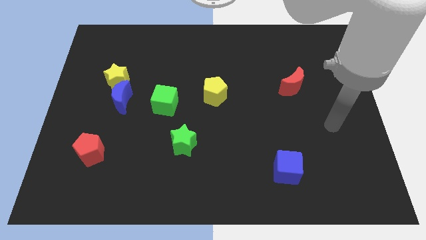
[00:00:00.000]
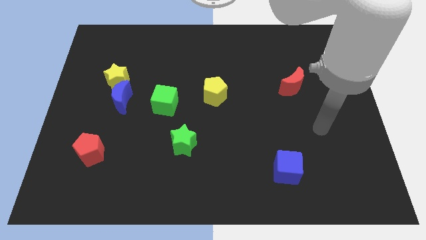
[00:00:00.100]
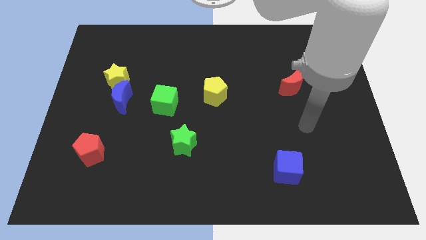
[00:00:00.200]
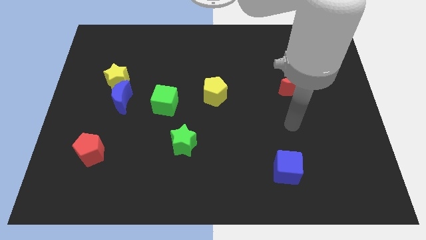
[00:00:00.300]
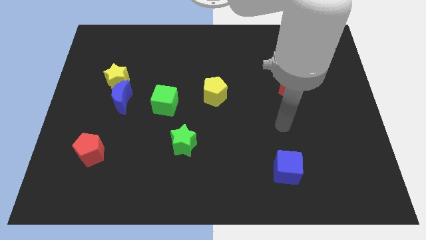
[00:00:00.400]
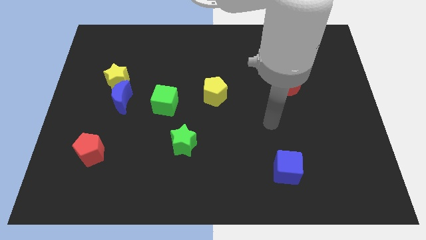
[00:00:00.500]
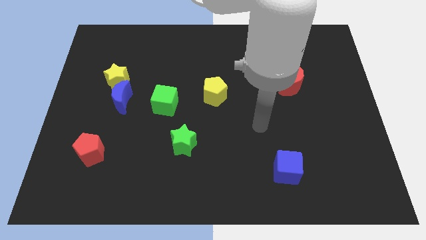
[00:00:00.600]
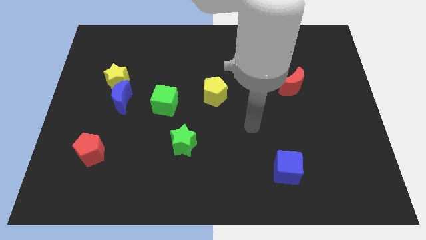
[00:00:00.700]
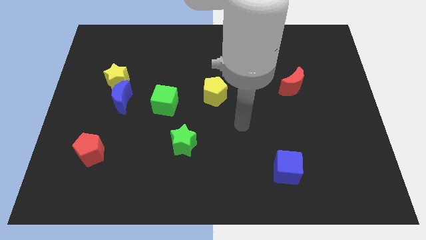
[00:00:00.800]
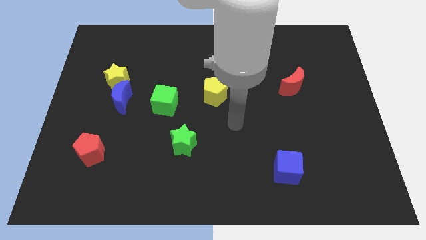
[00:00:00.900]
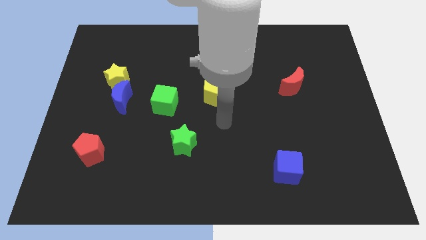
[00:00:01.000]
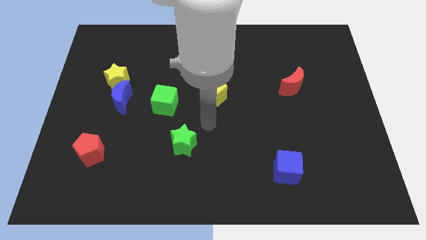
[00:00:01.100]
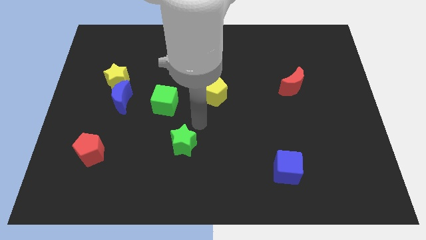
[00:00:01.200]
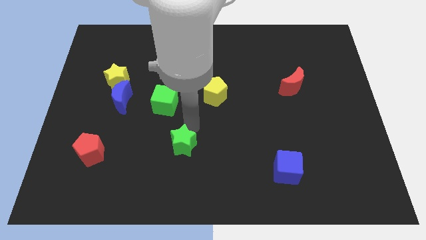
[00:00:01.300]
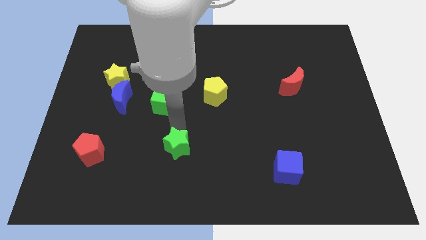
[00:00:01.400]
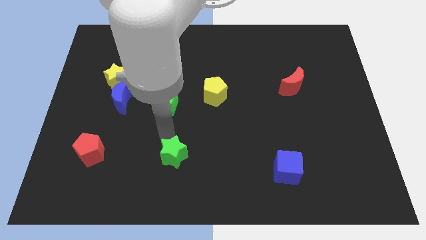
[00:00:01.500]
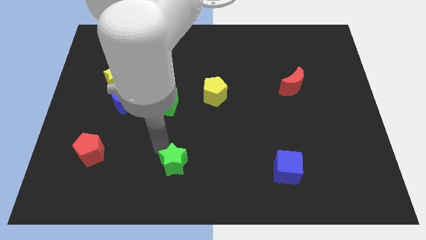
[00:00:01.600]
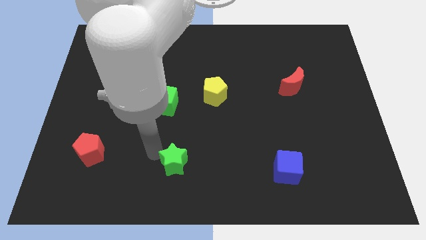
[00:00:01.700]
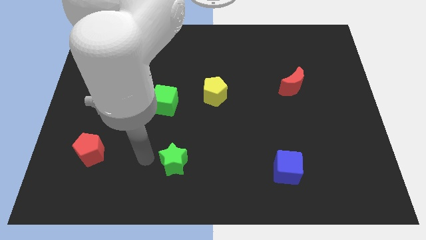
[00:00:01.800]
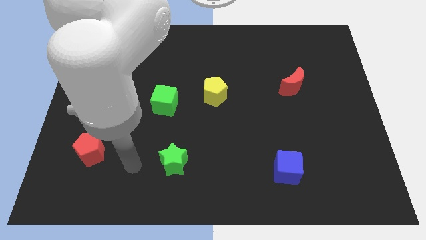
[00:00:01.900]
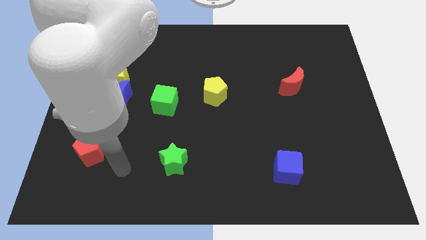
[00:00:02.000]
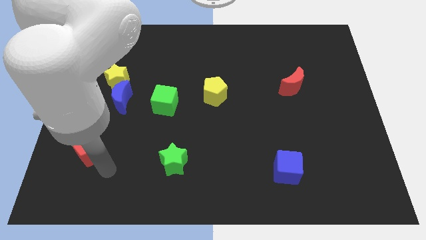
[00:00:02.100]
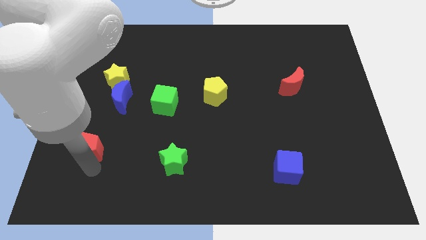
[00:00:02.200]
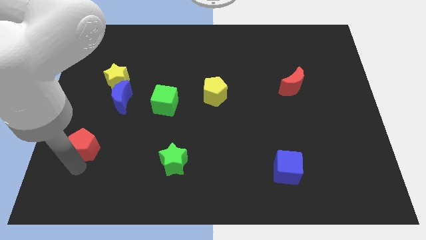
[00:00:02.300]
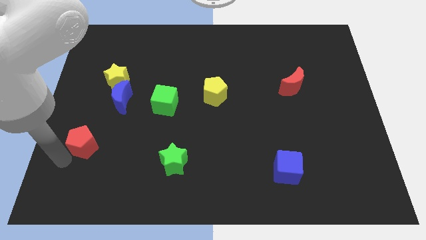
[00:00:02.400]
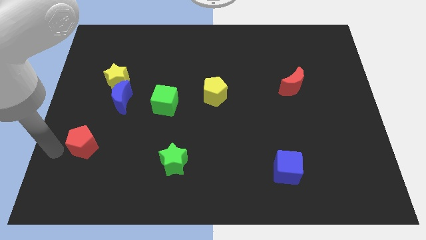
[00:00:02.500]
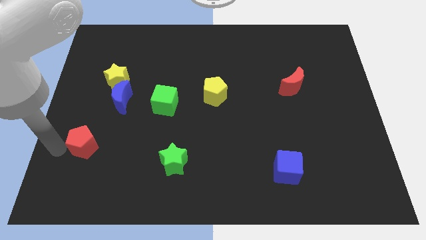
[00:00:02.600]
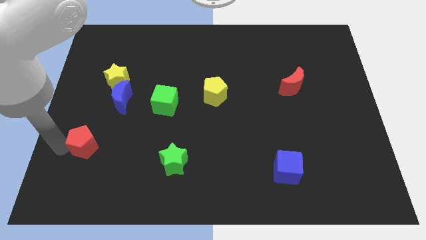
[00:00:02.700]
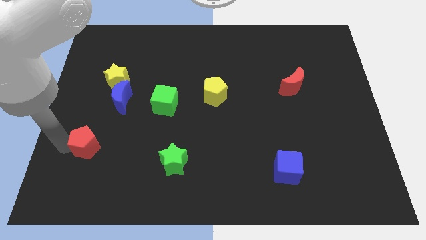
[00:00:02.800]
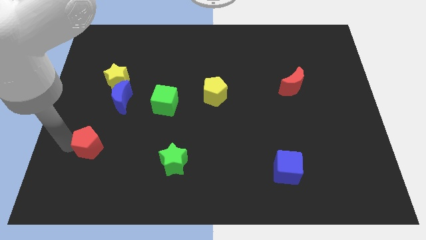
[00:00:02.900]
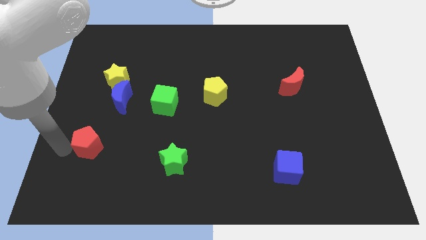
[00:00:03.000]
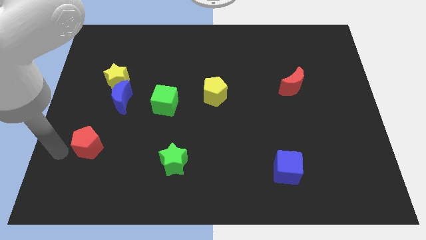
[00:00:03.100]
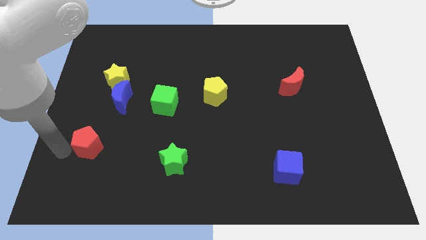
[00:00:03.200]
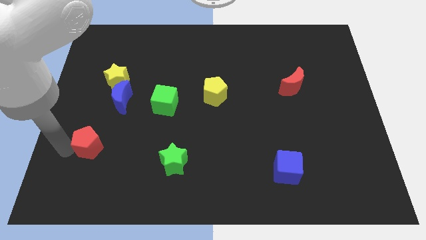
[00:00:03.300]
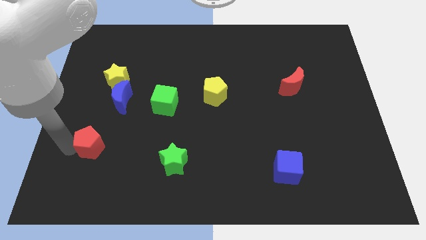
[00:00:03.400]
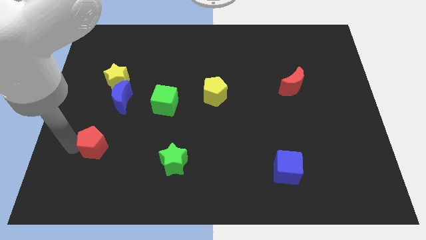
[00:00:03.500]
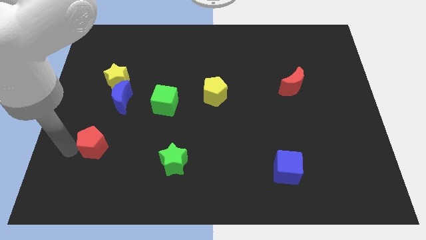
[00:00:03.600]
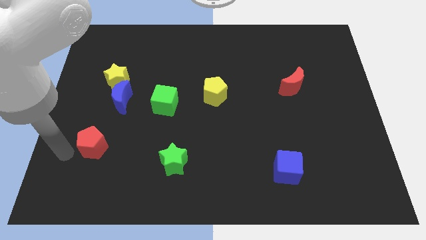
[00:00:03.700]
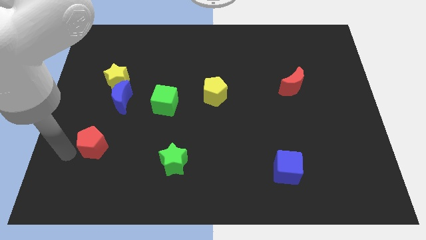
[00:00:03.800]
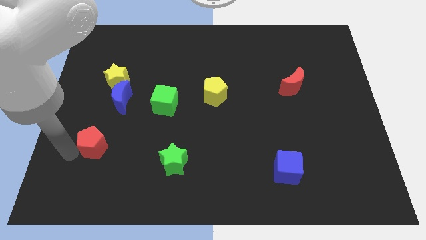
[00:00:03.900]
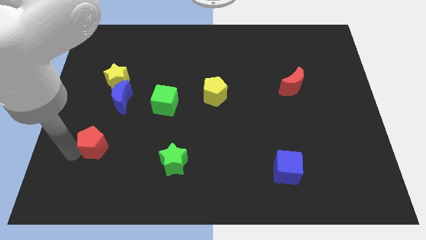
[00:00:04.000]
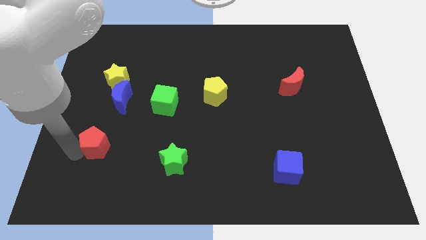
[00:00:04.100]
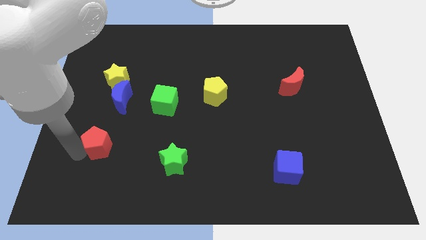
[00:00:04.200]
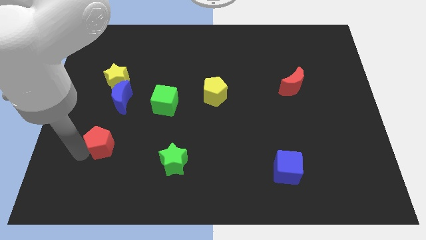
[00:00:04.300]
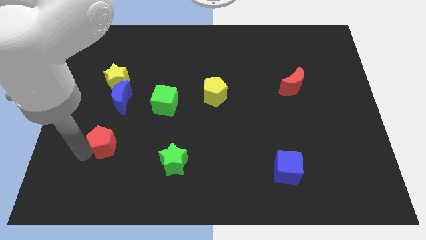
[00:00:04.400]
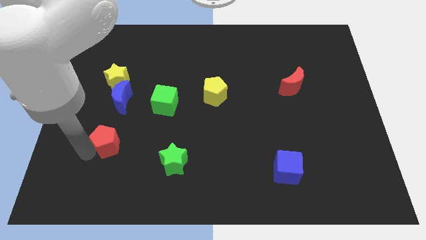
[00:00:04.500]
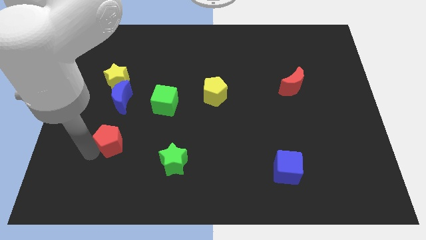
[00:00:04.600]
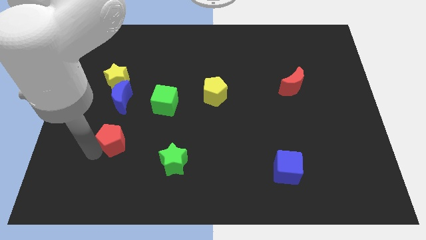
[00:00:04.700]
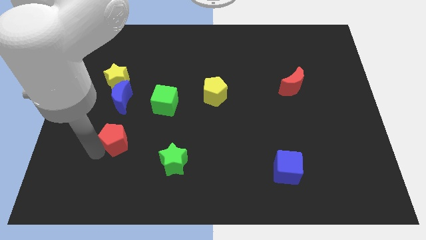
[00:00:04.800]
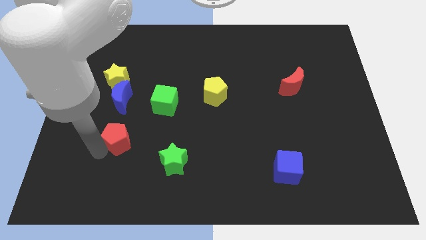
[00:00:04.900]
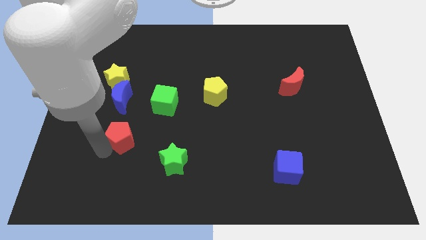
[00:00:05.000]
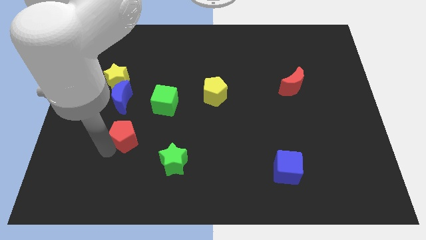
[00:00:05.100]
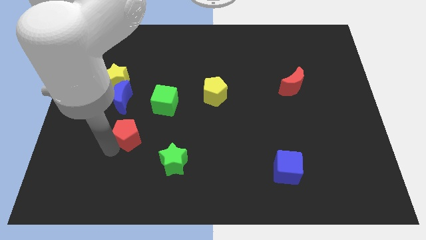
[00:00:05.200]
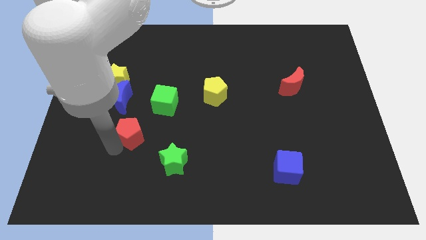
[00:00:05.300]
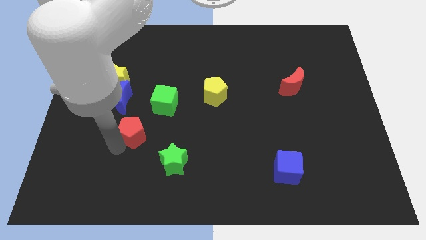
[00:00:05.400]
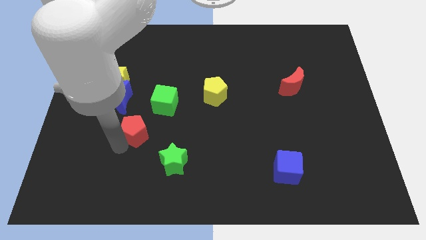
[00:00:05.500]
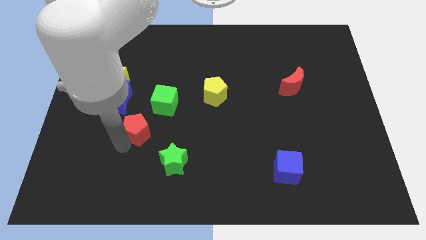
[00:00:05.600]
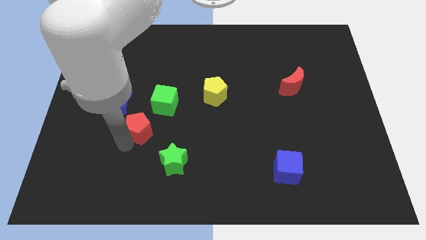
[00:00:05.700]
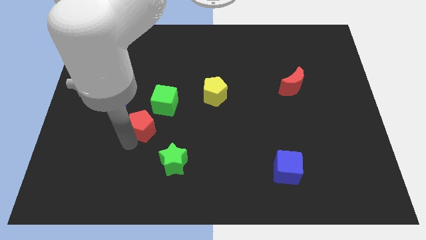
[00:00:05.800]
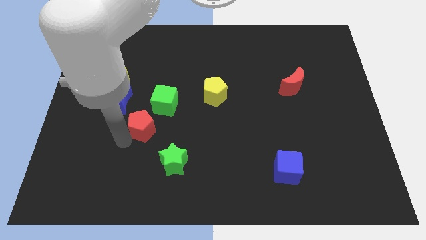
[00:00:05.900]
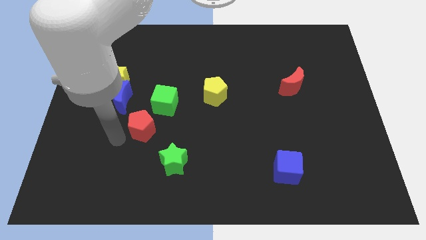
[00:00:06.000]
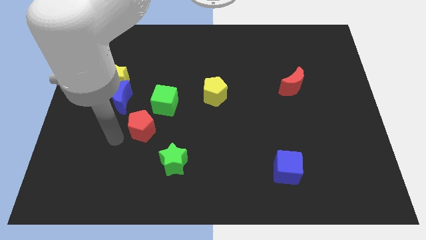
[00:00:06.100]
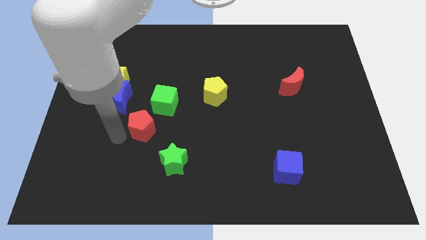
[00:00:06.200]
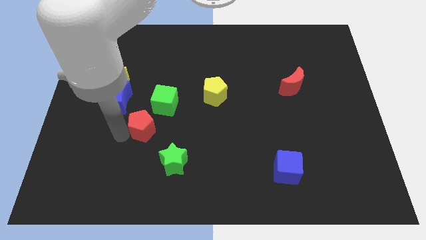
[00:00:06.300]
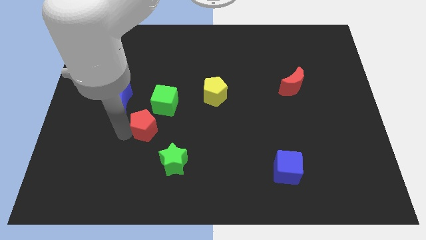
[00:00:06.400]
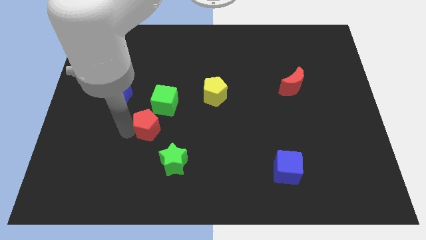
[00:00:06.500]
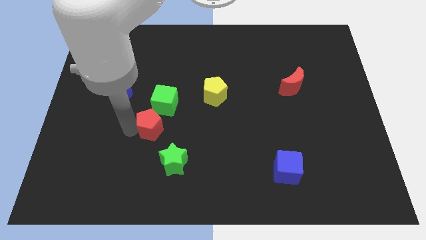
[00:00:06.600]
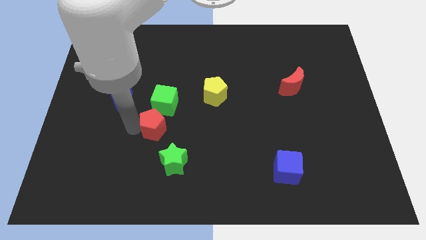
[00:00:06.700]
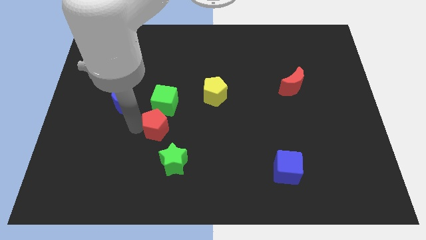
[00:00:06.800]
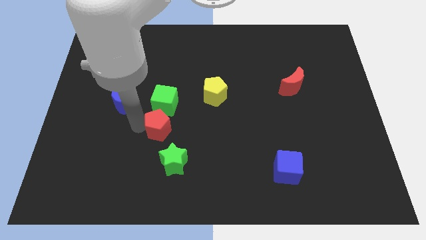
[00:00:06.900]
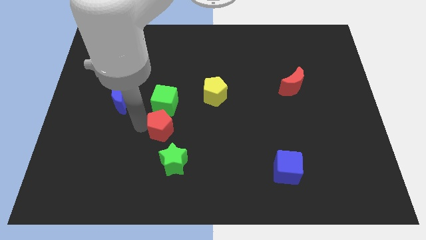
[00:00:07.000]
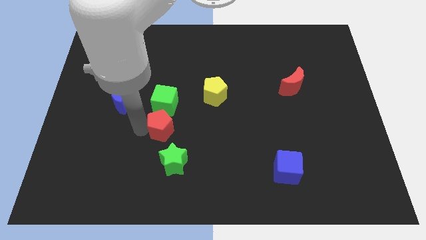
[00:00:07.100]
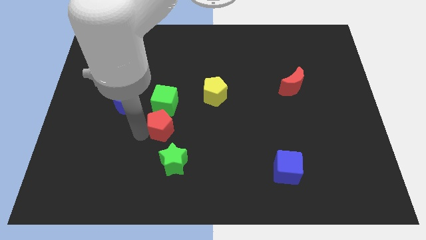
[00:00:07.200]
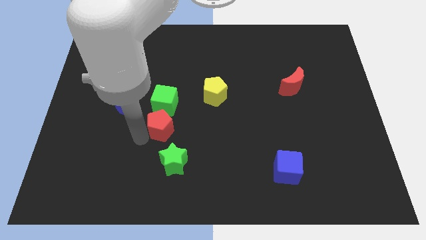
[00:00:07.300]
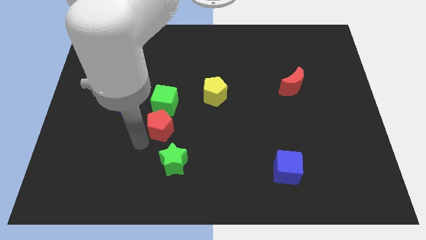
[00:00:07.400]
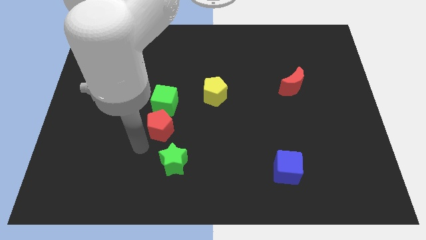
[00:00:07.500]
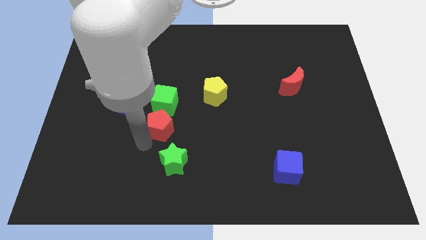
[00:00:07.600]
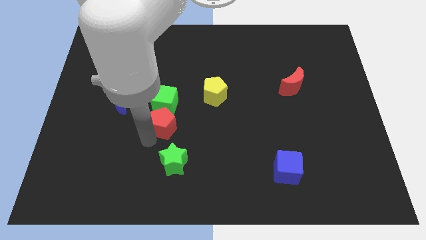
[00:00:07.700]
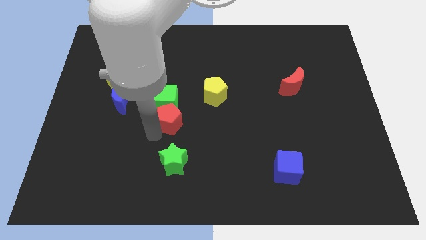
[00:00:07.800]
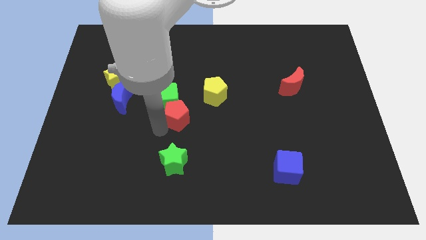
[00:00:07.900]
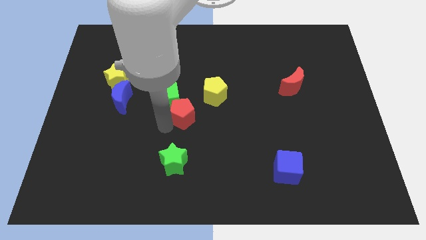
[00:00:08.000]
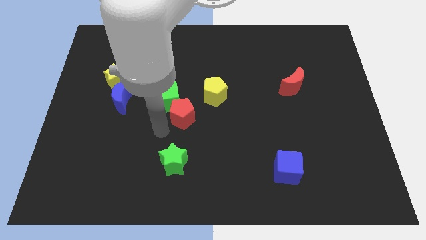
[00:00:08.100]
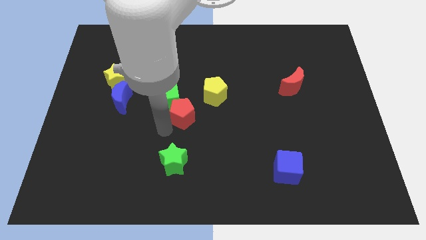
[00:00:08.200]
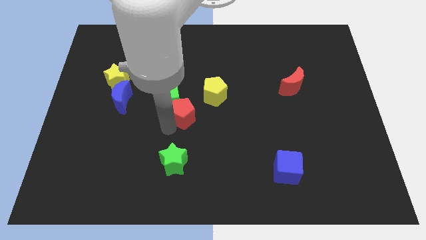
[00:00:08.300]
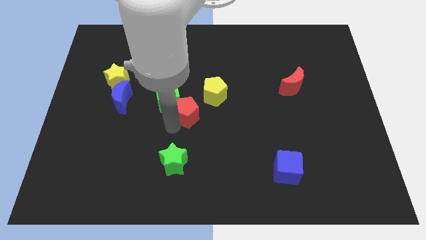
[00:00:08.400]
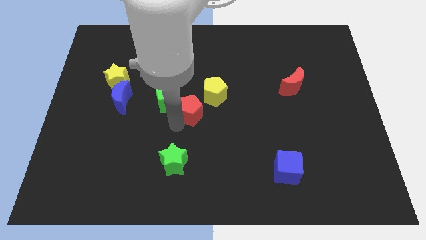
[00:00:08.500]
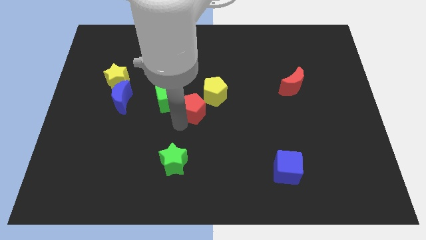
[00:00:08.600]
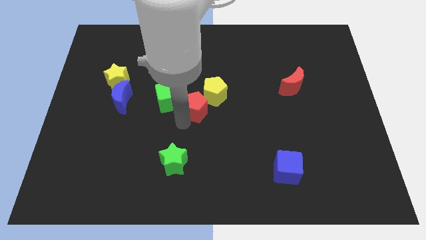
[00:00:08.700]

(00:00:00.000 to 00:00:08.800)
slide the red pentagon close to the yellow pentagon
